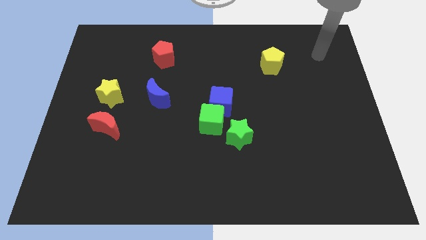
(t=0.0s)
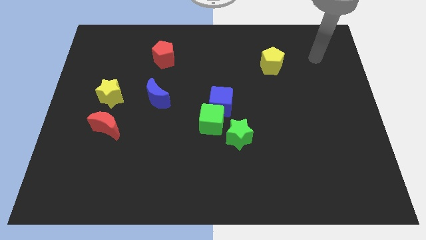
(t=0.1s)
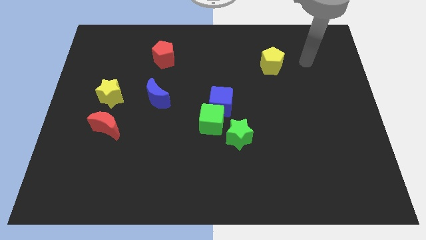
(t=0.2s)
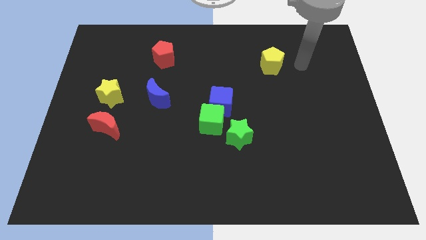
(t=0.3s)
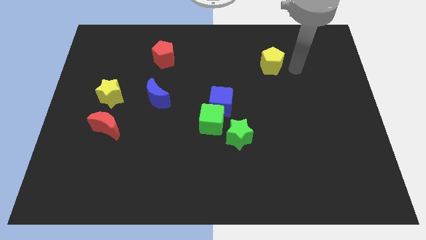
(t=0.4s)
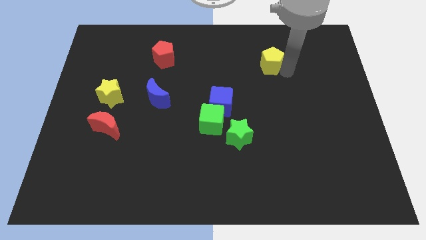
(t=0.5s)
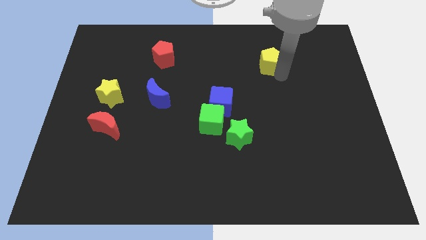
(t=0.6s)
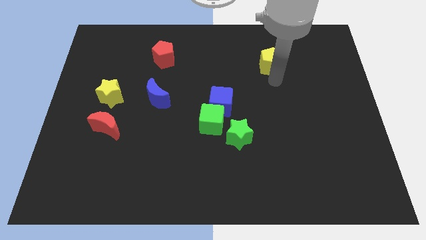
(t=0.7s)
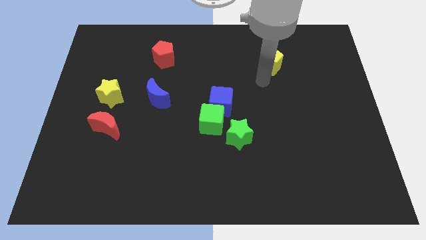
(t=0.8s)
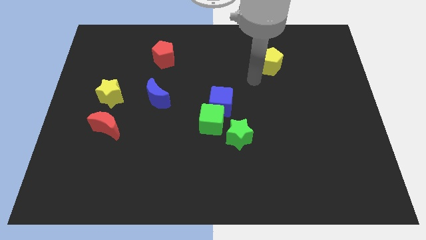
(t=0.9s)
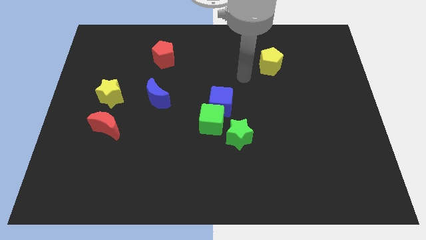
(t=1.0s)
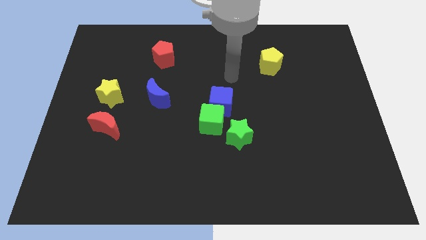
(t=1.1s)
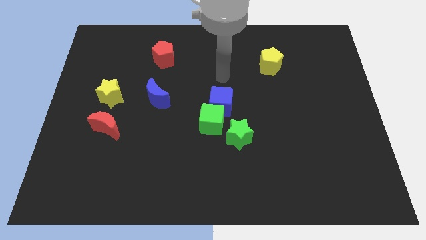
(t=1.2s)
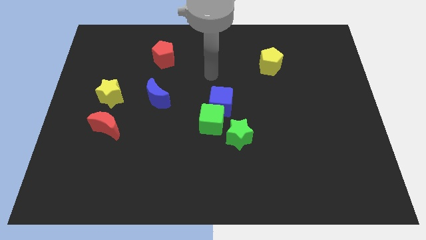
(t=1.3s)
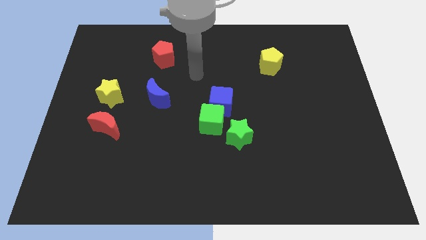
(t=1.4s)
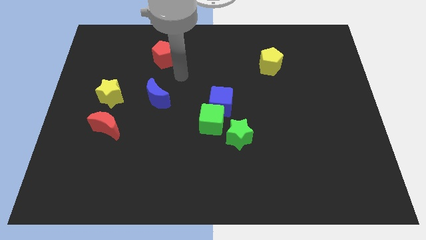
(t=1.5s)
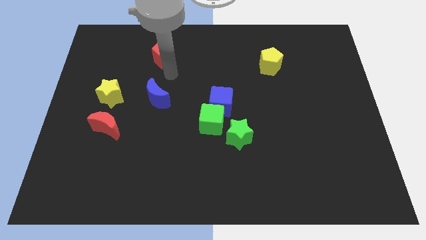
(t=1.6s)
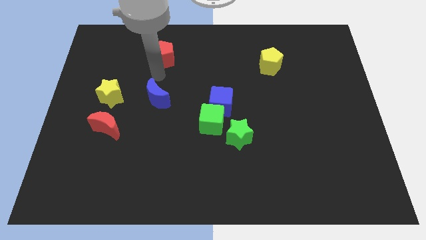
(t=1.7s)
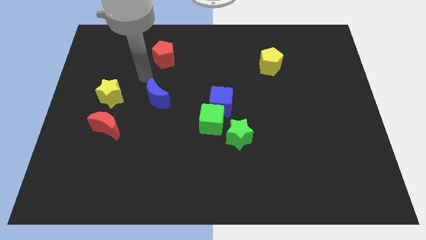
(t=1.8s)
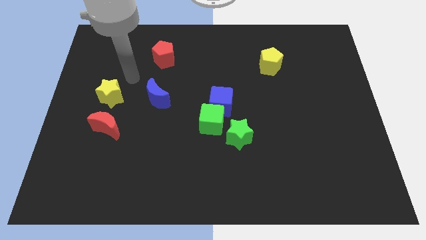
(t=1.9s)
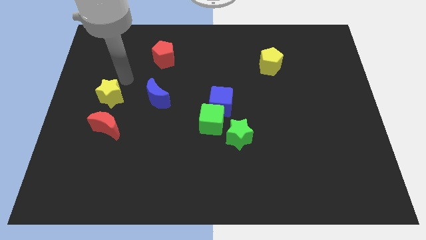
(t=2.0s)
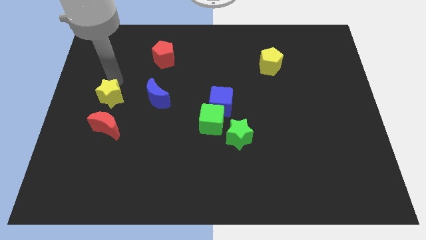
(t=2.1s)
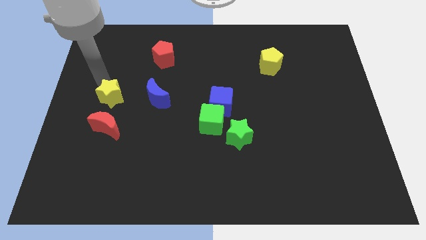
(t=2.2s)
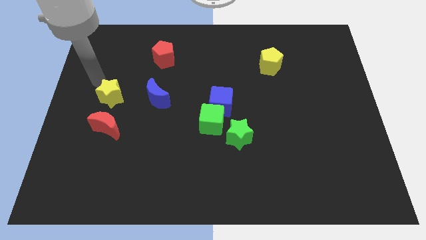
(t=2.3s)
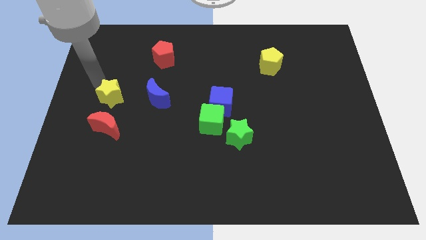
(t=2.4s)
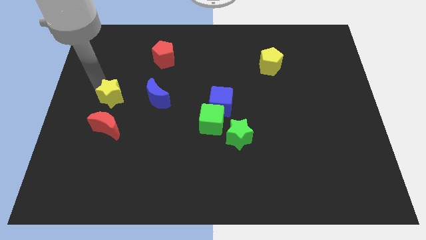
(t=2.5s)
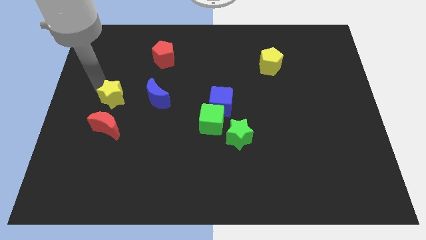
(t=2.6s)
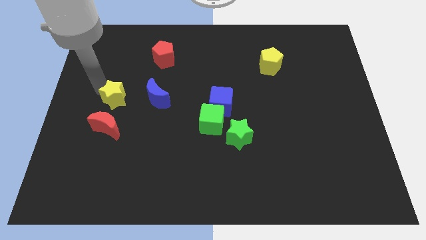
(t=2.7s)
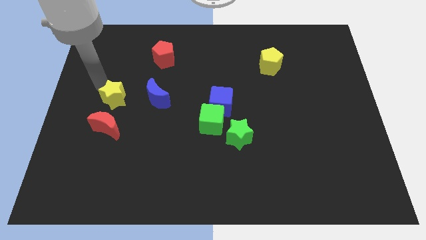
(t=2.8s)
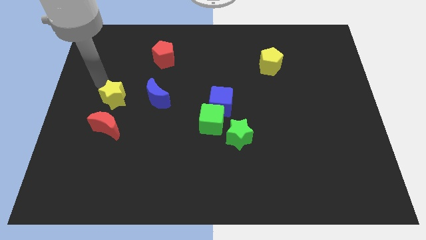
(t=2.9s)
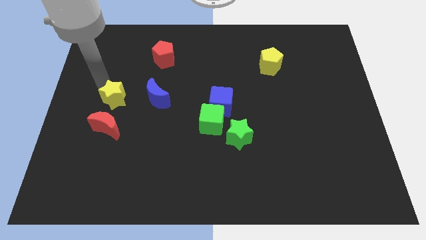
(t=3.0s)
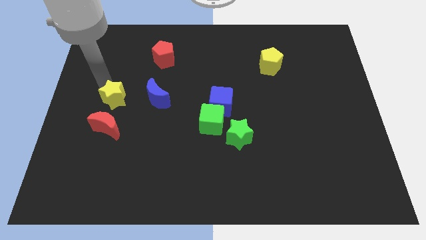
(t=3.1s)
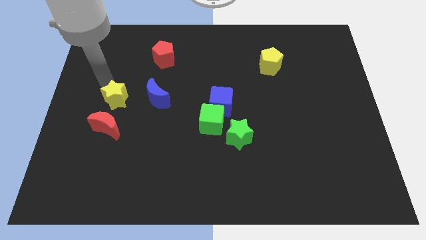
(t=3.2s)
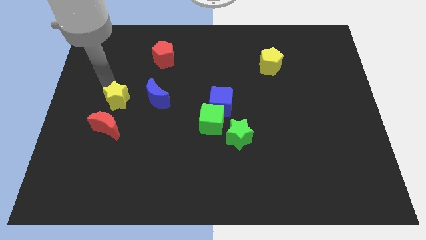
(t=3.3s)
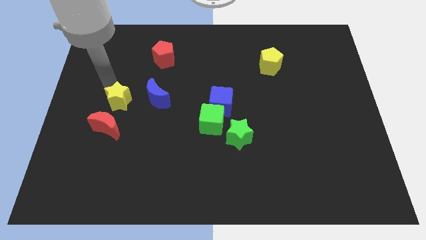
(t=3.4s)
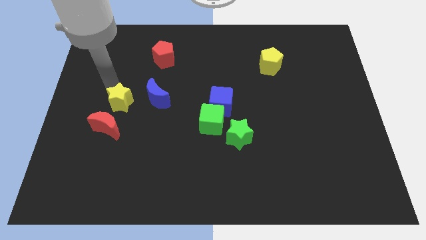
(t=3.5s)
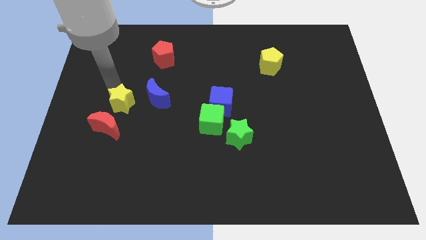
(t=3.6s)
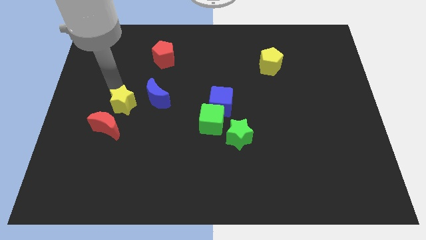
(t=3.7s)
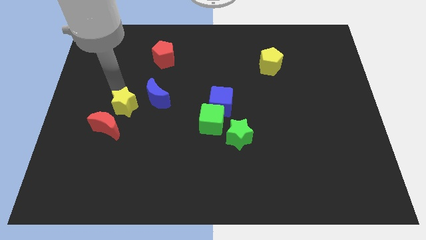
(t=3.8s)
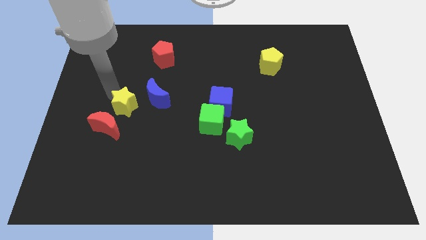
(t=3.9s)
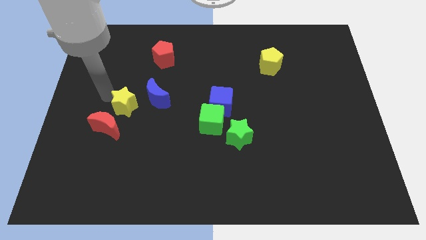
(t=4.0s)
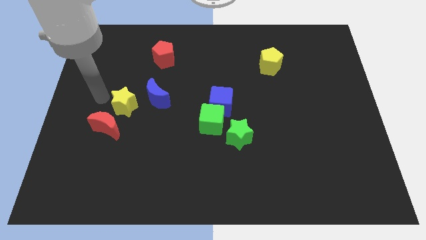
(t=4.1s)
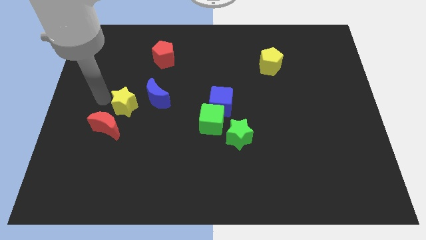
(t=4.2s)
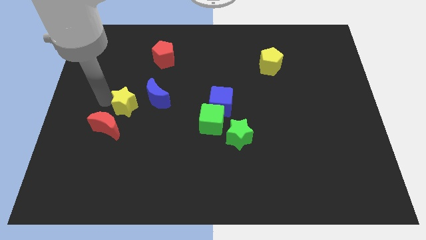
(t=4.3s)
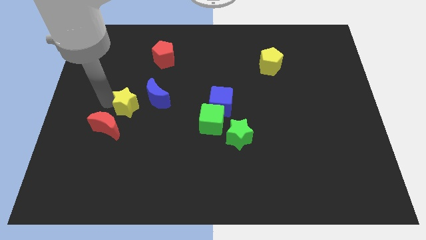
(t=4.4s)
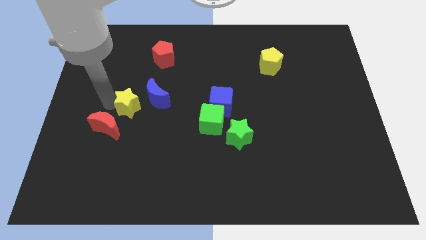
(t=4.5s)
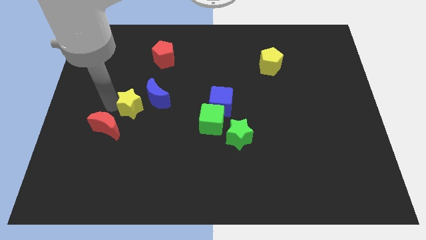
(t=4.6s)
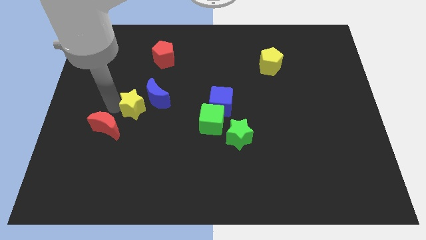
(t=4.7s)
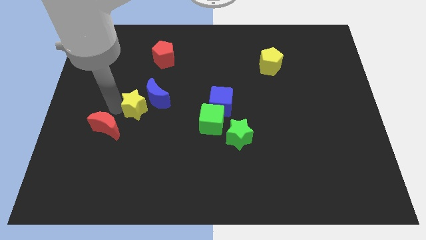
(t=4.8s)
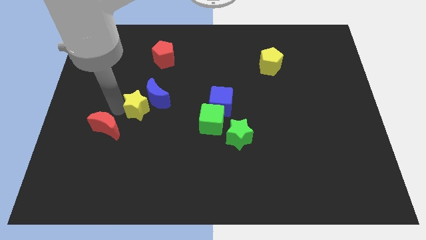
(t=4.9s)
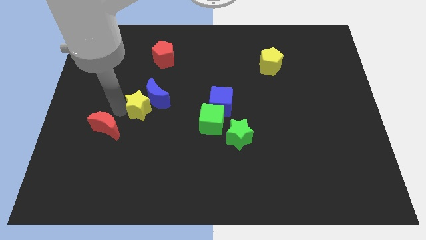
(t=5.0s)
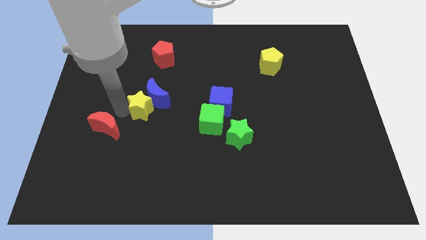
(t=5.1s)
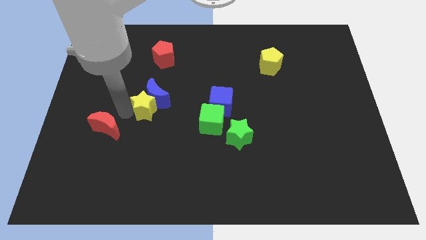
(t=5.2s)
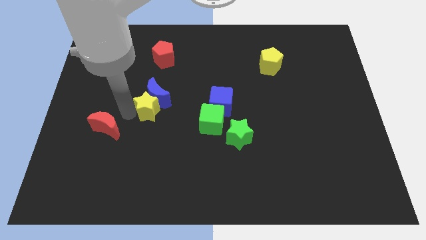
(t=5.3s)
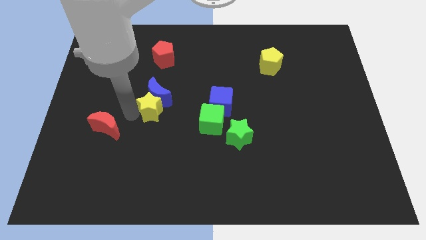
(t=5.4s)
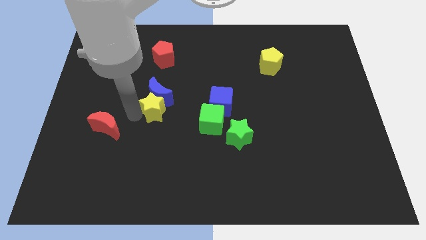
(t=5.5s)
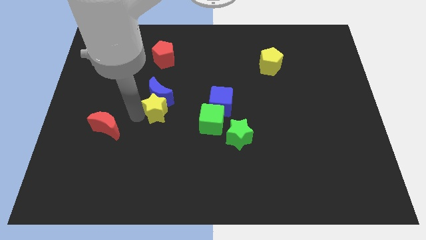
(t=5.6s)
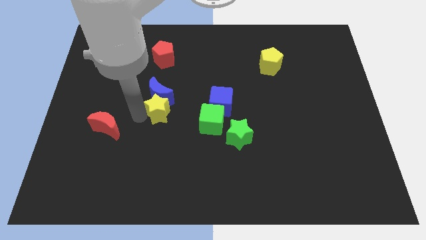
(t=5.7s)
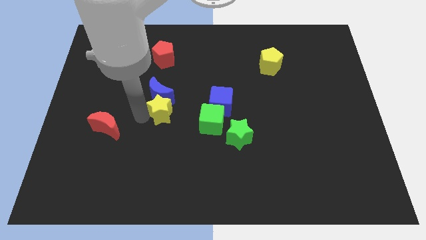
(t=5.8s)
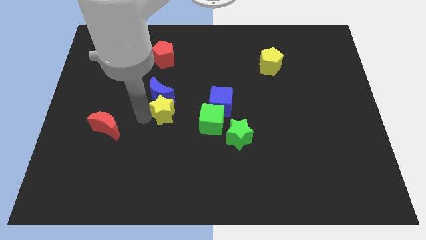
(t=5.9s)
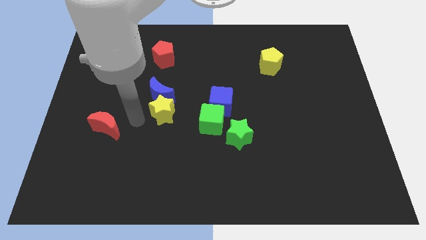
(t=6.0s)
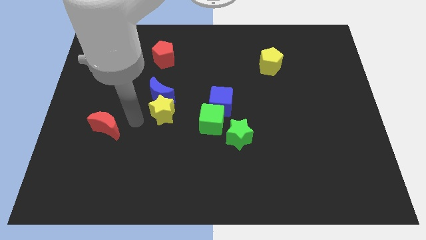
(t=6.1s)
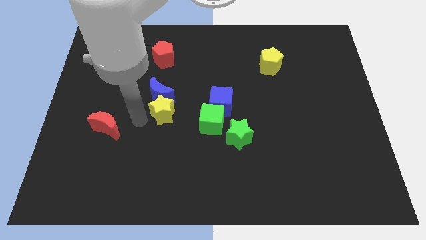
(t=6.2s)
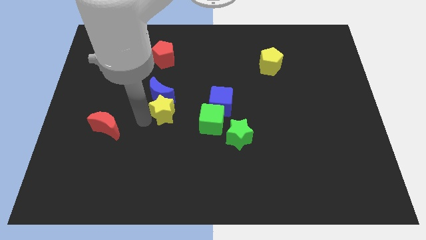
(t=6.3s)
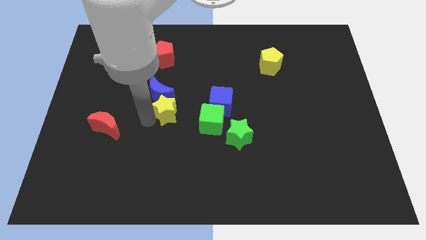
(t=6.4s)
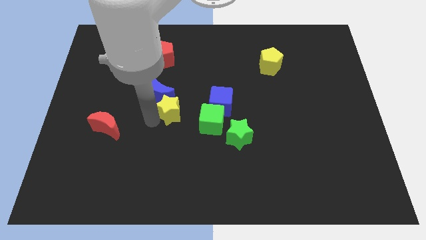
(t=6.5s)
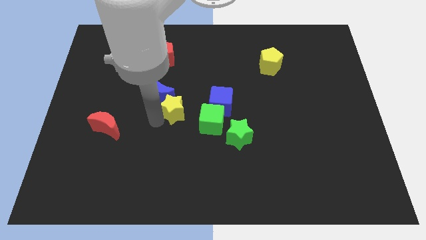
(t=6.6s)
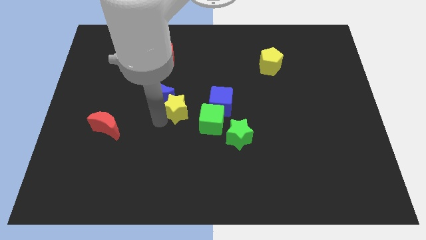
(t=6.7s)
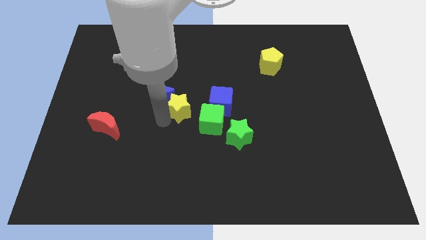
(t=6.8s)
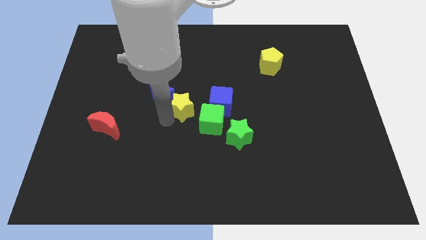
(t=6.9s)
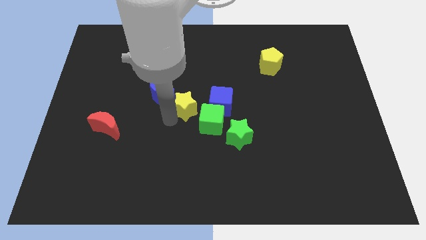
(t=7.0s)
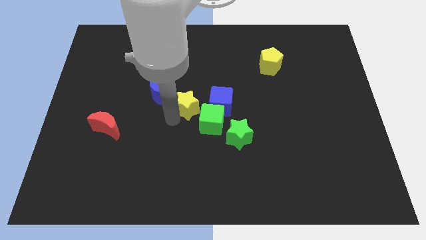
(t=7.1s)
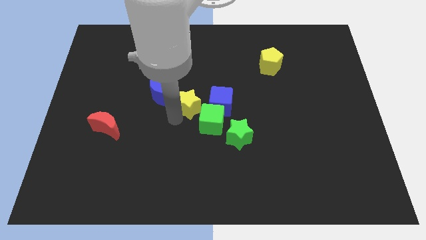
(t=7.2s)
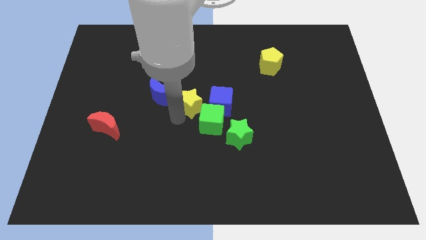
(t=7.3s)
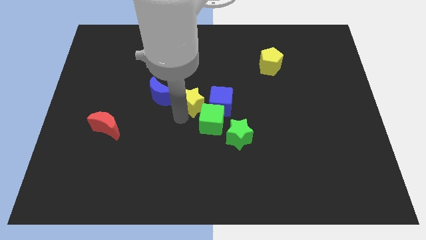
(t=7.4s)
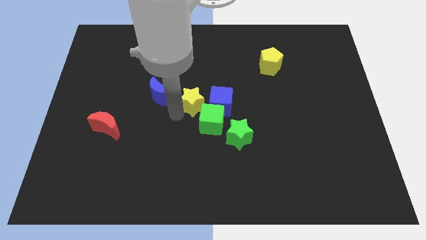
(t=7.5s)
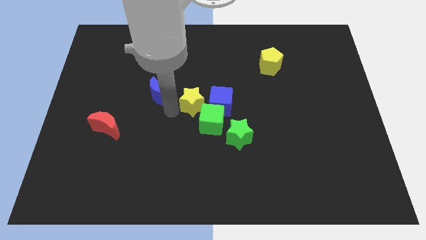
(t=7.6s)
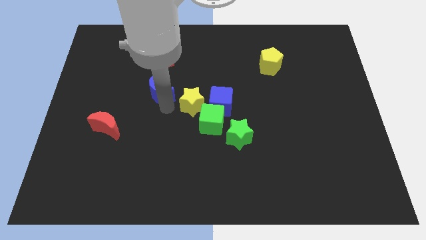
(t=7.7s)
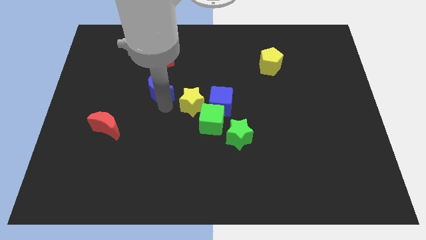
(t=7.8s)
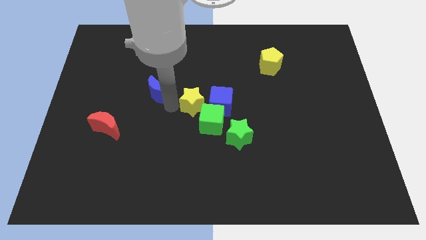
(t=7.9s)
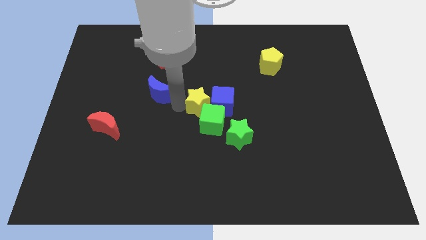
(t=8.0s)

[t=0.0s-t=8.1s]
slide the yellow star close to the blue cube
